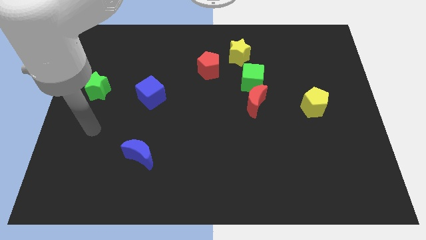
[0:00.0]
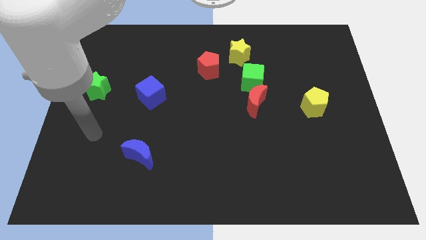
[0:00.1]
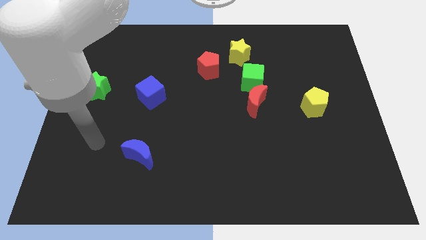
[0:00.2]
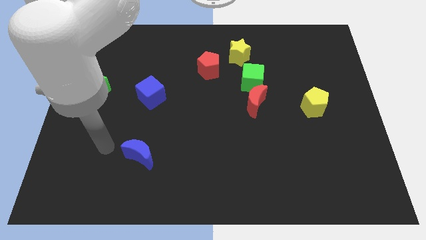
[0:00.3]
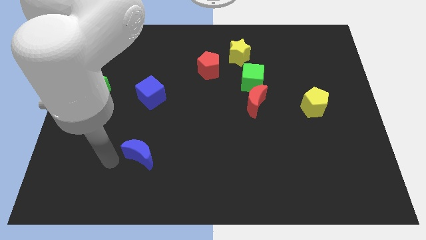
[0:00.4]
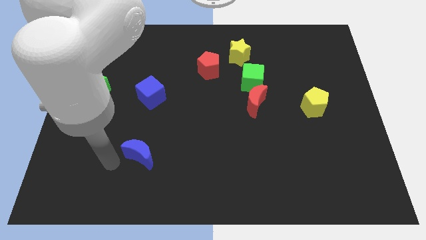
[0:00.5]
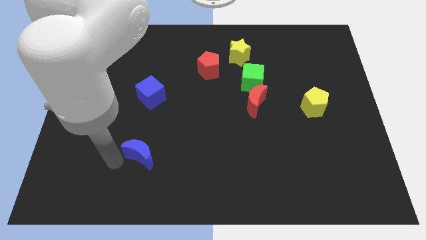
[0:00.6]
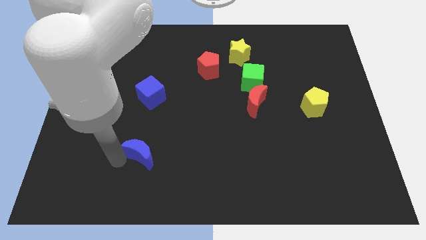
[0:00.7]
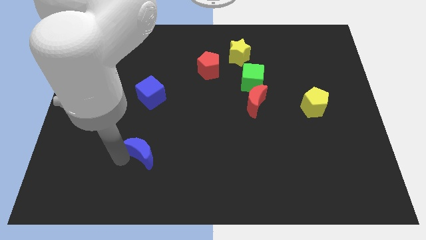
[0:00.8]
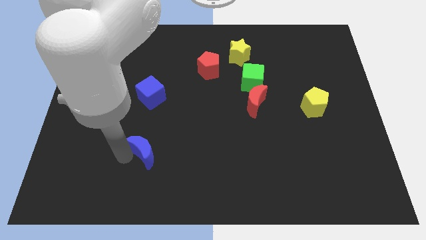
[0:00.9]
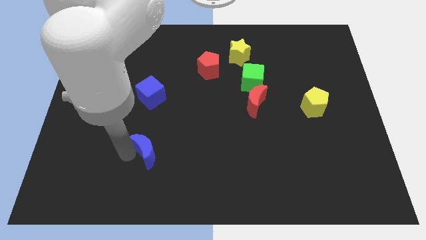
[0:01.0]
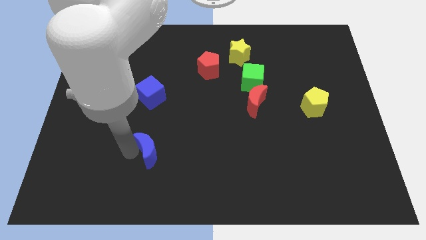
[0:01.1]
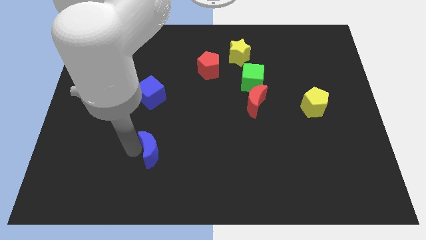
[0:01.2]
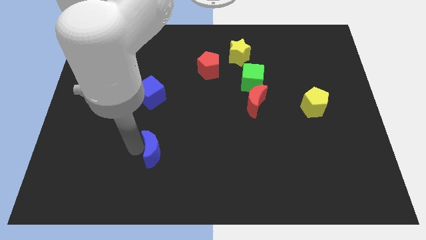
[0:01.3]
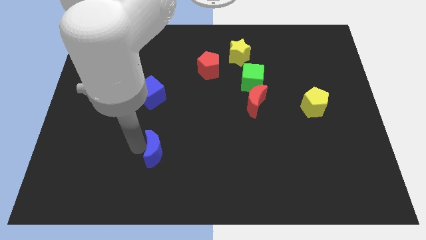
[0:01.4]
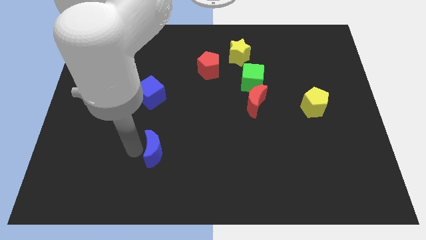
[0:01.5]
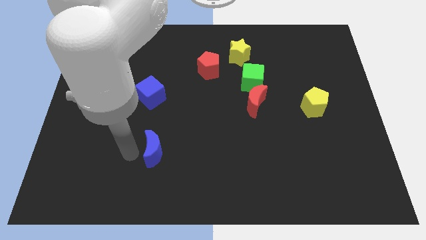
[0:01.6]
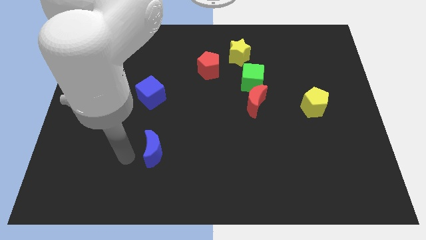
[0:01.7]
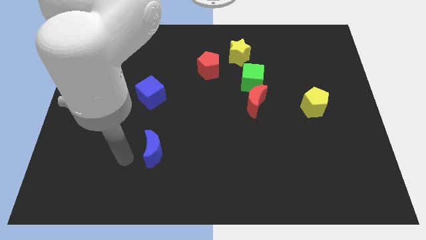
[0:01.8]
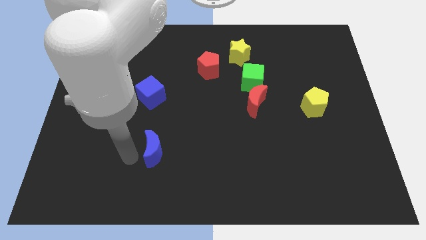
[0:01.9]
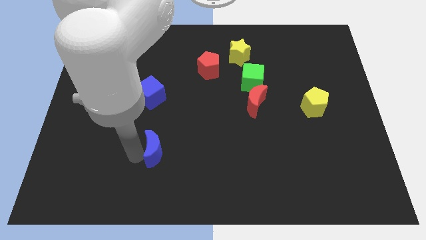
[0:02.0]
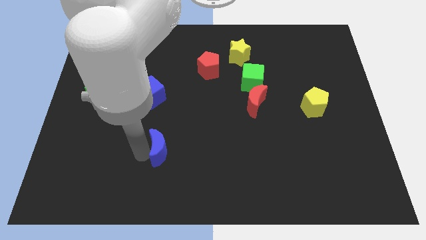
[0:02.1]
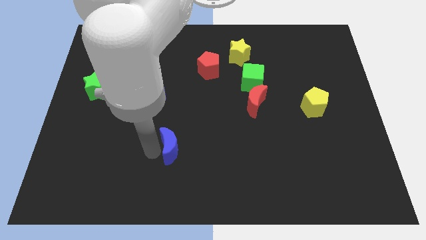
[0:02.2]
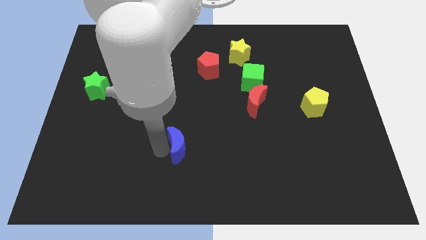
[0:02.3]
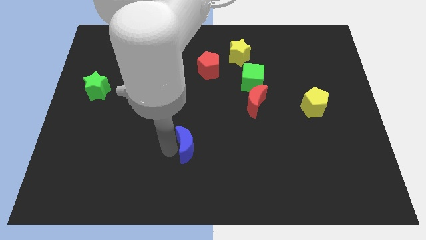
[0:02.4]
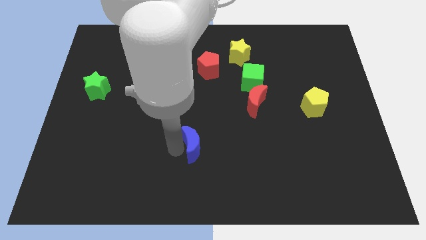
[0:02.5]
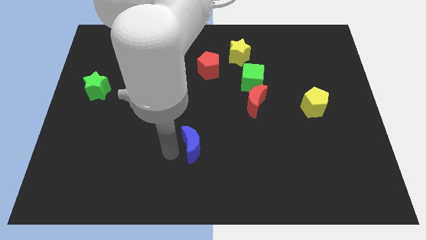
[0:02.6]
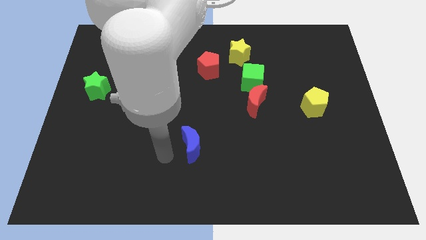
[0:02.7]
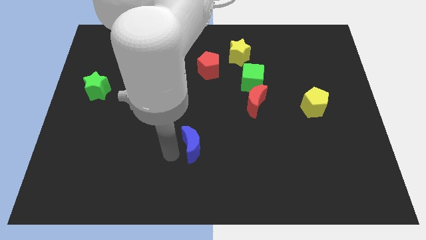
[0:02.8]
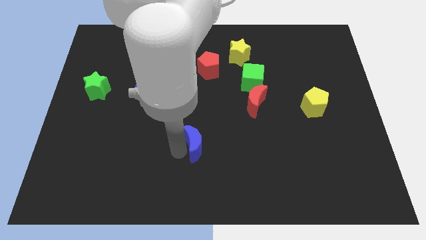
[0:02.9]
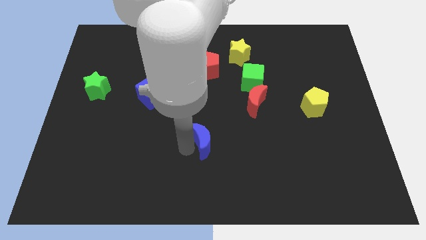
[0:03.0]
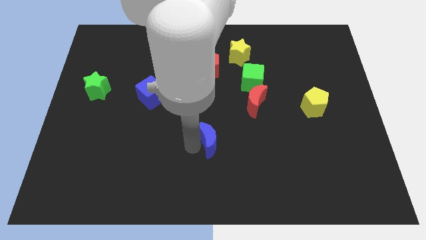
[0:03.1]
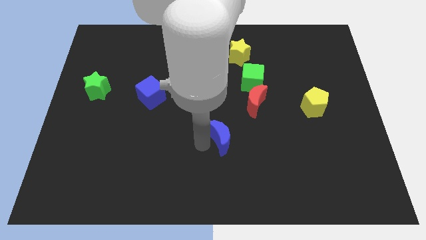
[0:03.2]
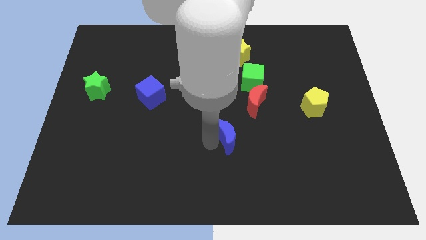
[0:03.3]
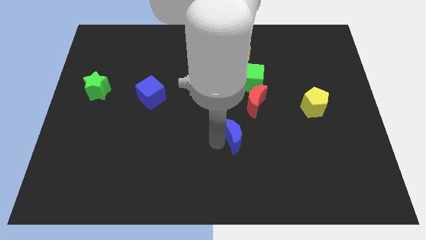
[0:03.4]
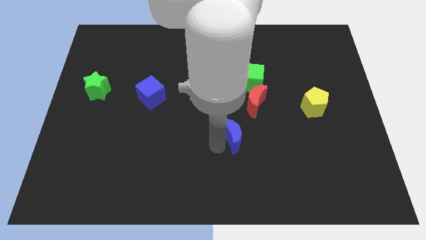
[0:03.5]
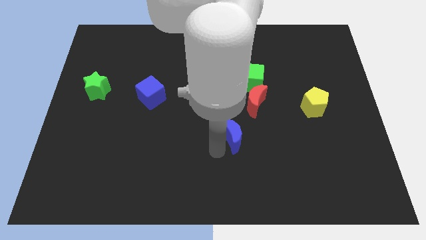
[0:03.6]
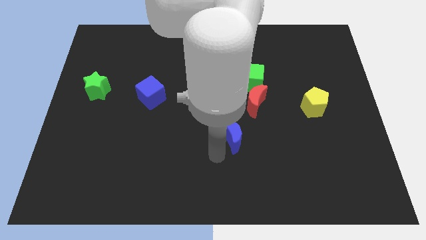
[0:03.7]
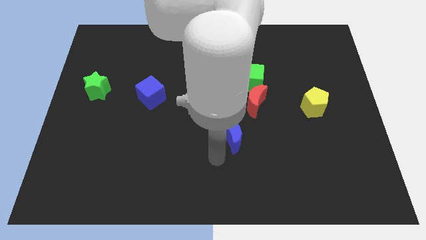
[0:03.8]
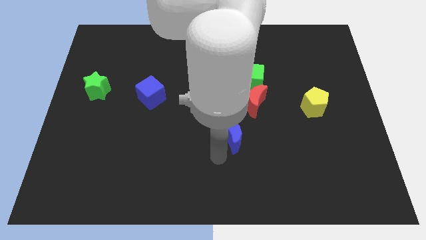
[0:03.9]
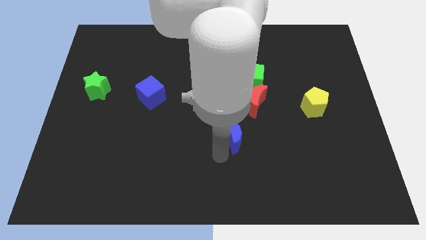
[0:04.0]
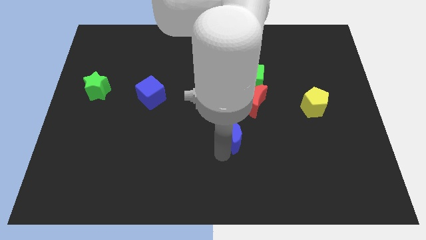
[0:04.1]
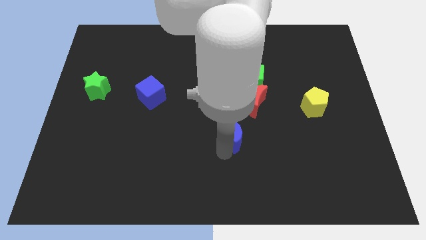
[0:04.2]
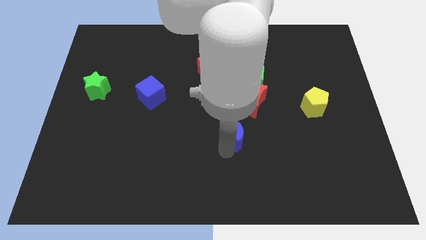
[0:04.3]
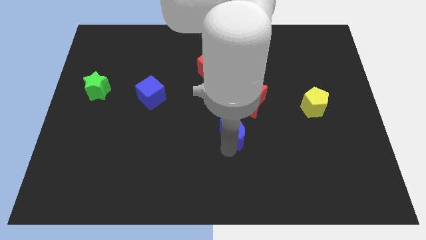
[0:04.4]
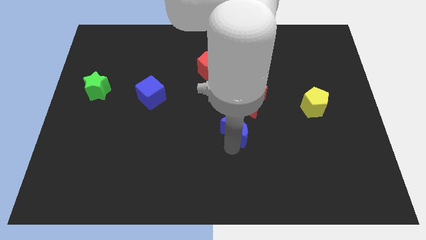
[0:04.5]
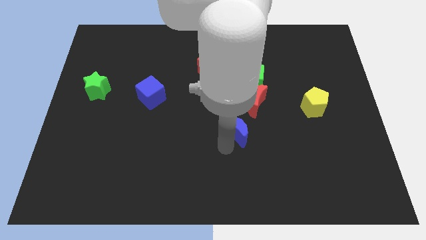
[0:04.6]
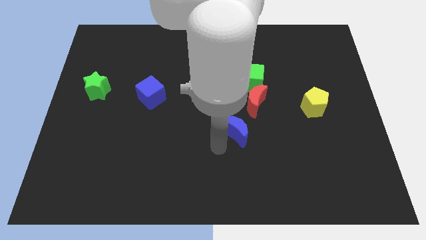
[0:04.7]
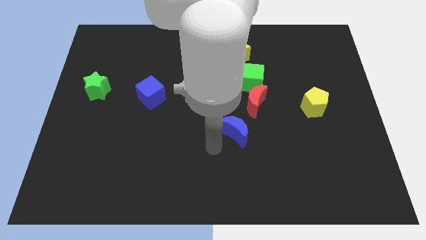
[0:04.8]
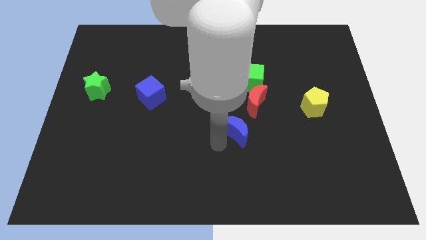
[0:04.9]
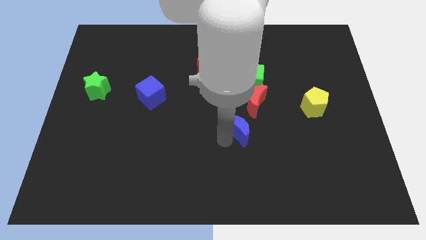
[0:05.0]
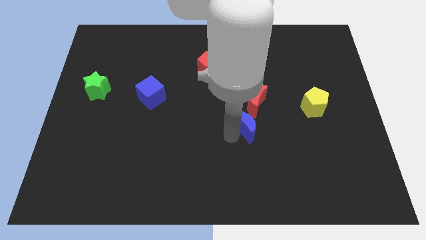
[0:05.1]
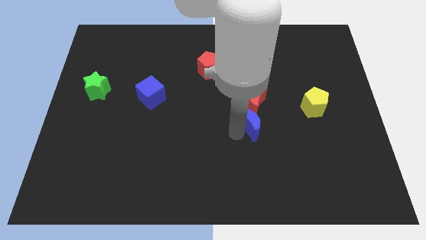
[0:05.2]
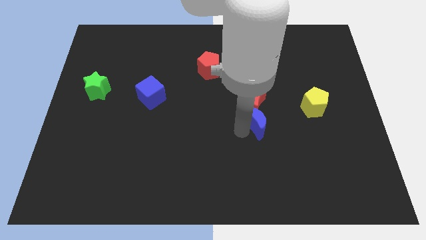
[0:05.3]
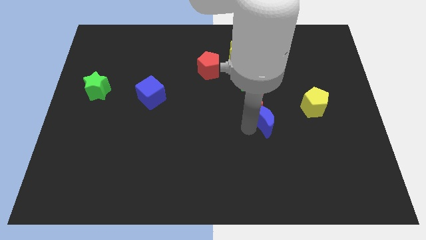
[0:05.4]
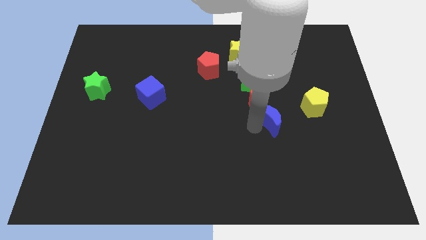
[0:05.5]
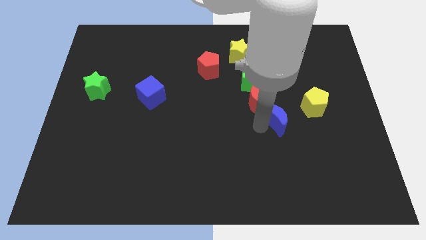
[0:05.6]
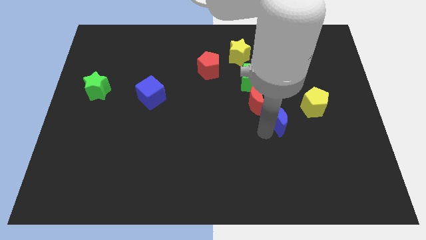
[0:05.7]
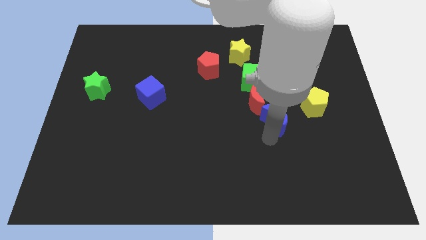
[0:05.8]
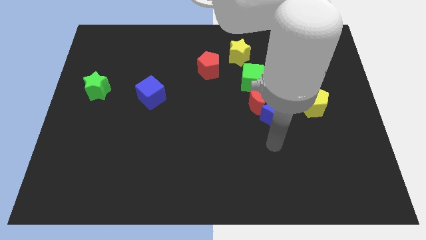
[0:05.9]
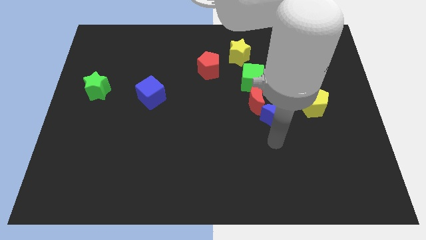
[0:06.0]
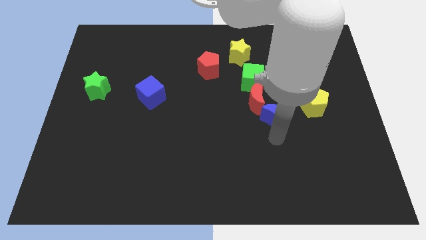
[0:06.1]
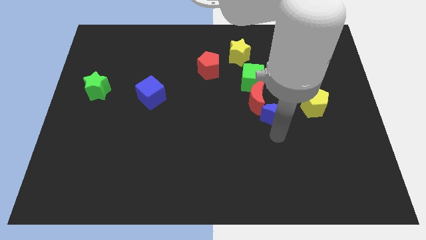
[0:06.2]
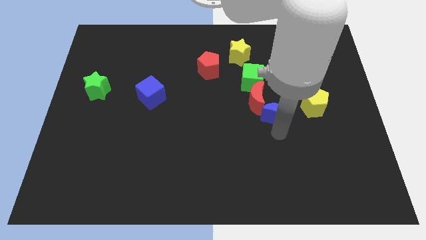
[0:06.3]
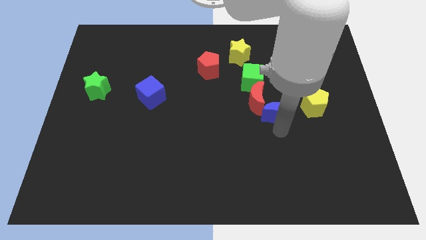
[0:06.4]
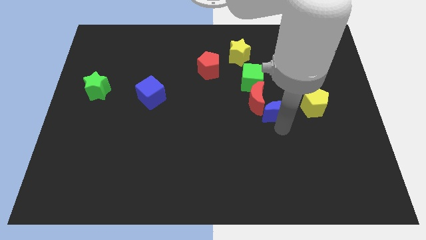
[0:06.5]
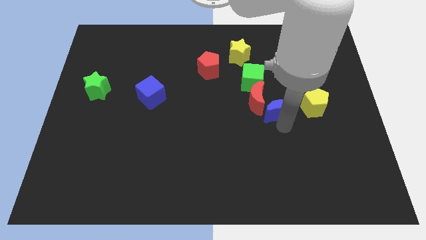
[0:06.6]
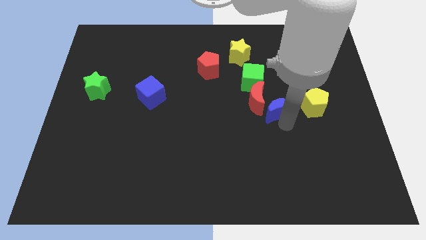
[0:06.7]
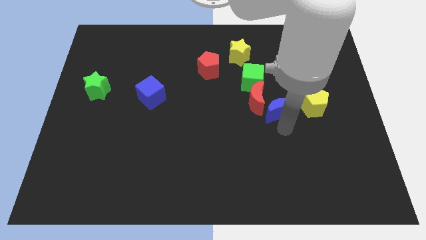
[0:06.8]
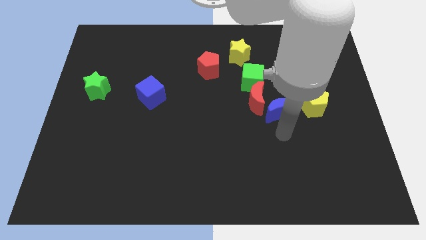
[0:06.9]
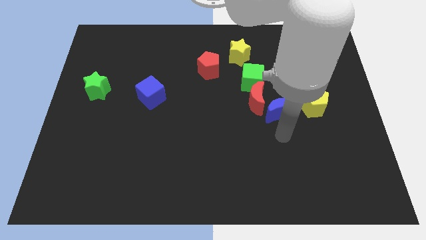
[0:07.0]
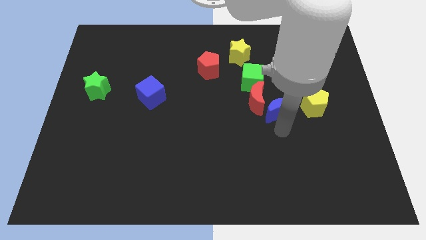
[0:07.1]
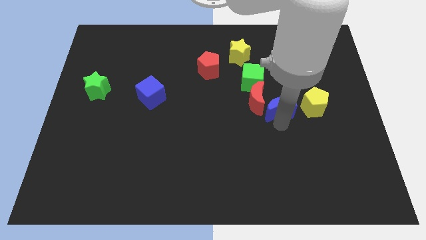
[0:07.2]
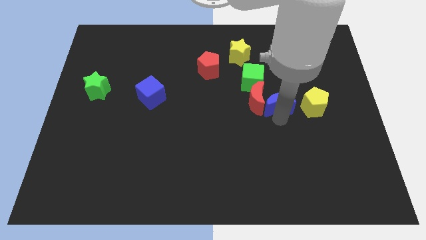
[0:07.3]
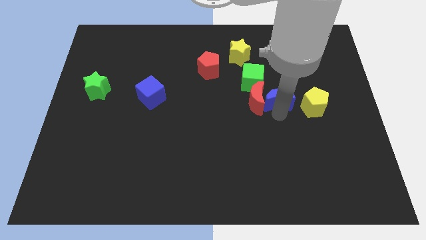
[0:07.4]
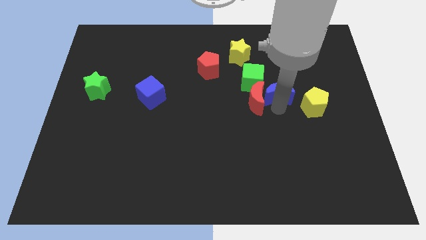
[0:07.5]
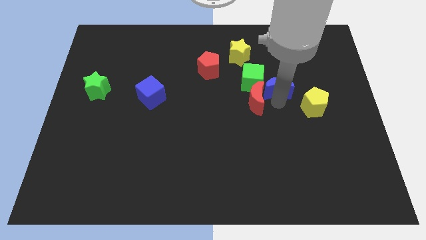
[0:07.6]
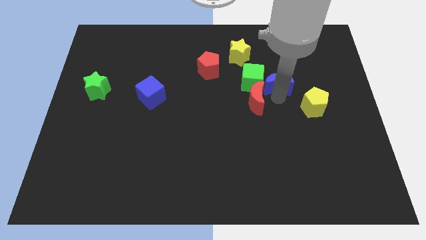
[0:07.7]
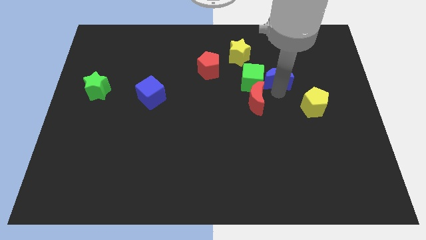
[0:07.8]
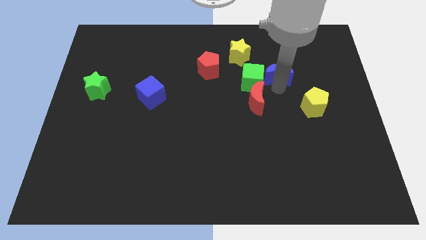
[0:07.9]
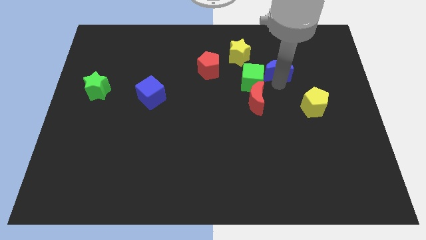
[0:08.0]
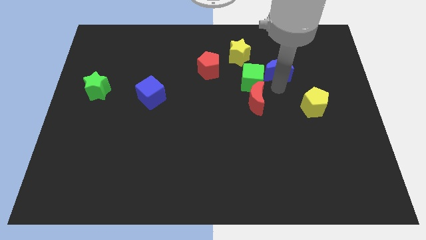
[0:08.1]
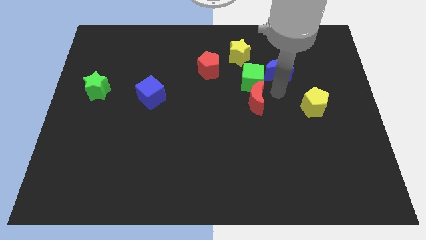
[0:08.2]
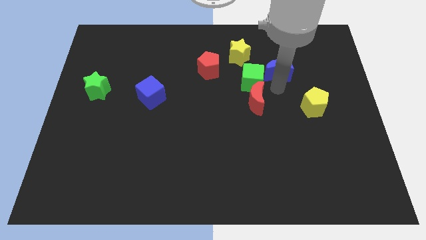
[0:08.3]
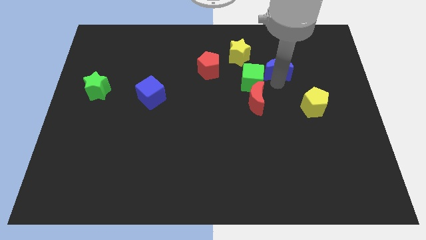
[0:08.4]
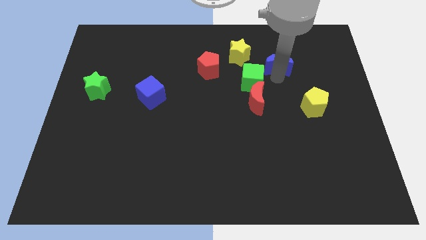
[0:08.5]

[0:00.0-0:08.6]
slide the blue moon right of the yellow star
